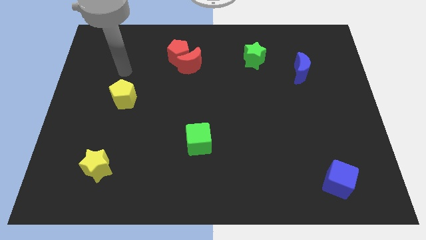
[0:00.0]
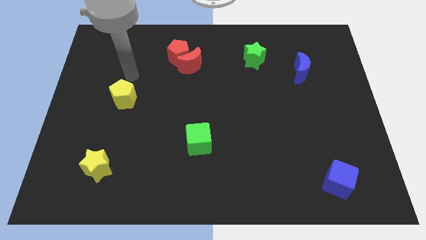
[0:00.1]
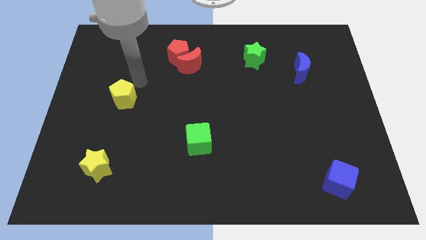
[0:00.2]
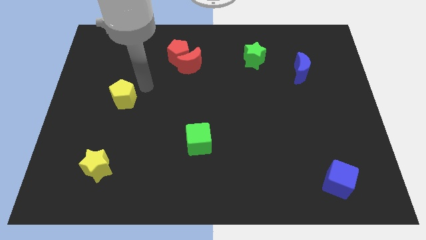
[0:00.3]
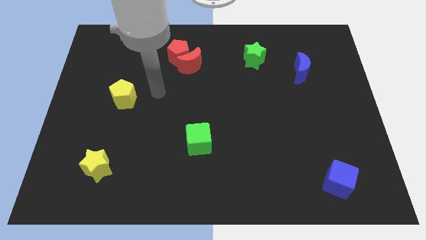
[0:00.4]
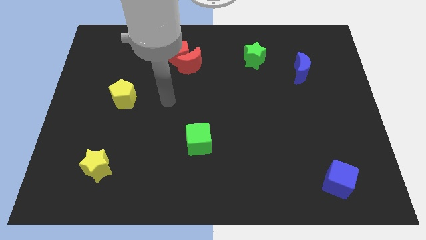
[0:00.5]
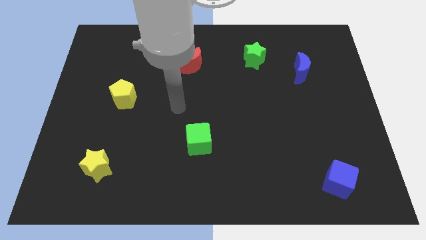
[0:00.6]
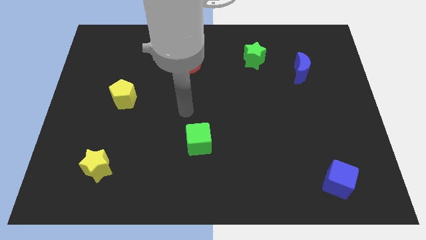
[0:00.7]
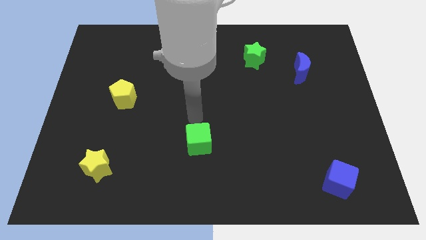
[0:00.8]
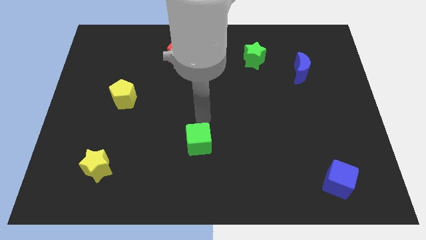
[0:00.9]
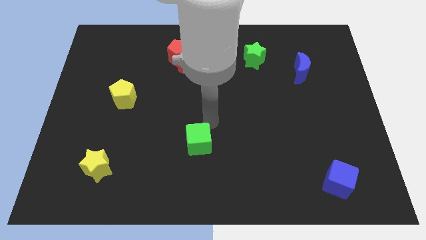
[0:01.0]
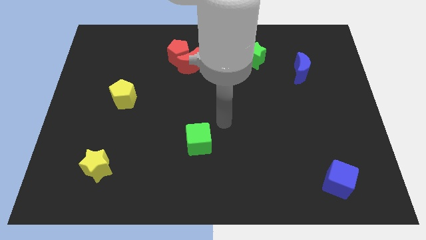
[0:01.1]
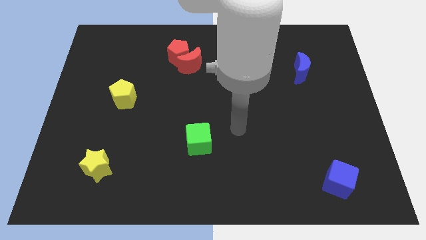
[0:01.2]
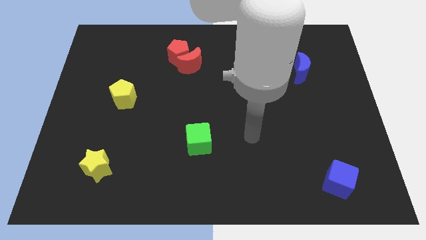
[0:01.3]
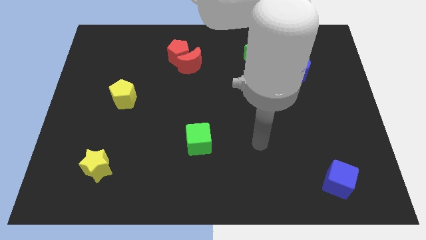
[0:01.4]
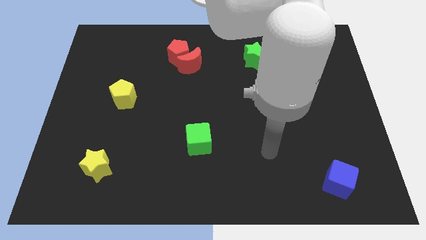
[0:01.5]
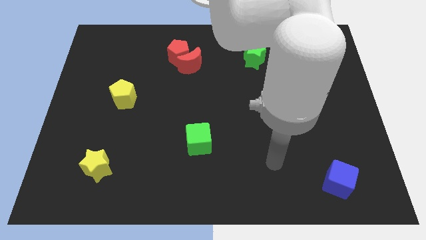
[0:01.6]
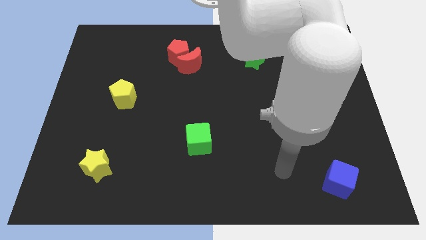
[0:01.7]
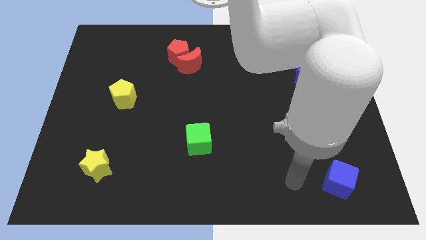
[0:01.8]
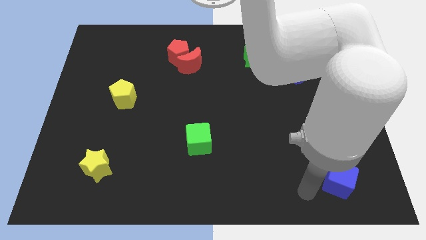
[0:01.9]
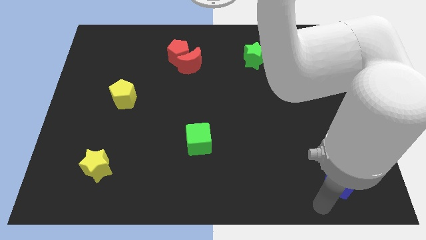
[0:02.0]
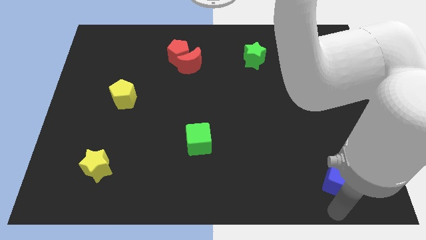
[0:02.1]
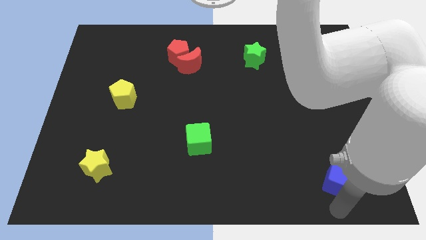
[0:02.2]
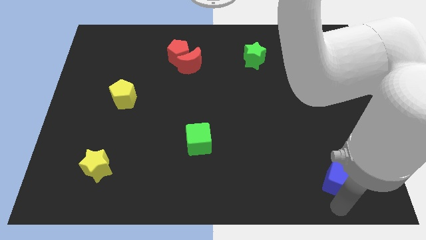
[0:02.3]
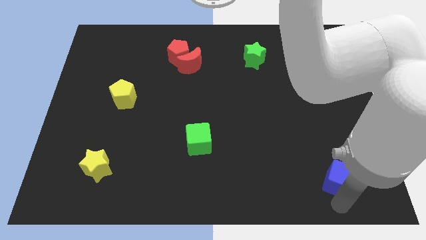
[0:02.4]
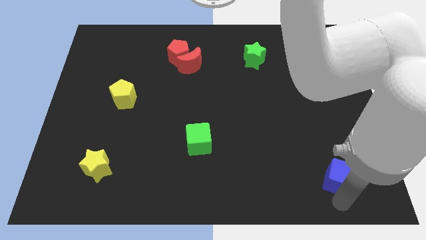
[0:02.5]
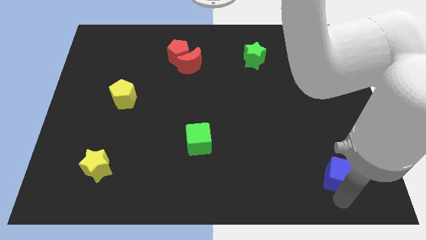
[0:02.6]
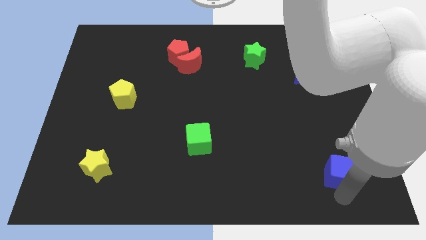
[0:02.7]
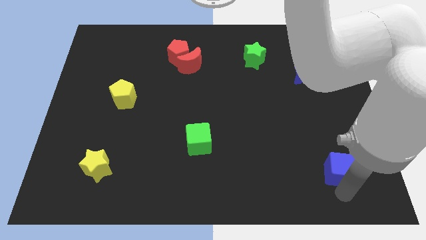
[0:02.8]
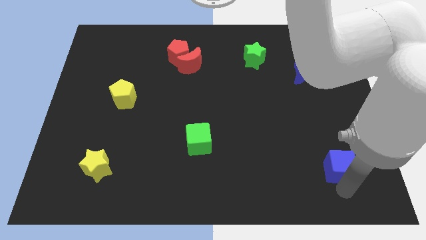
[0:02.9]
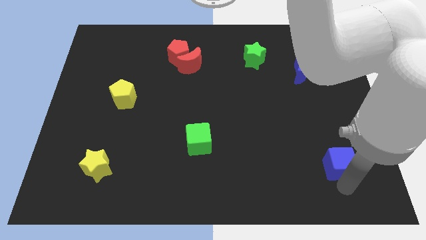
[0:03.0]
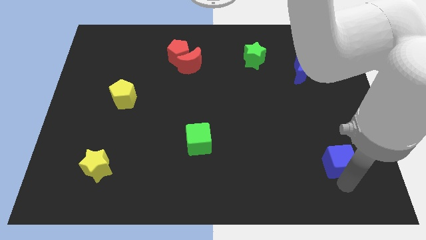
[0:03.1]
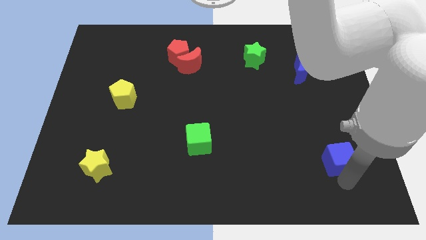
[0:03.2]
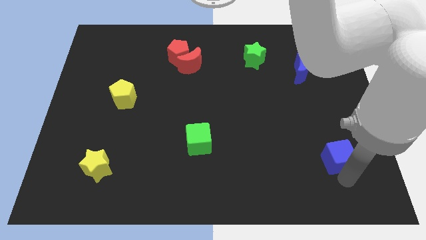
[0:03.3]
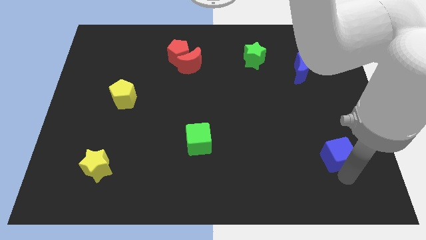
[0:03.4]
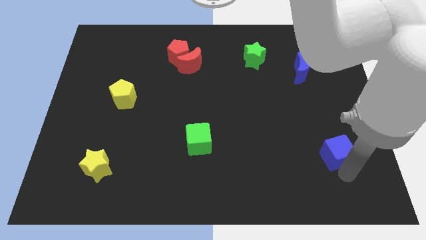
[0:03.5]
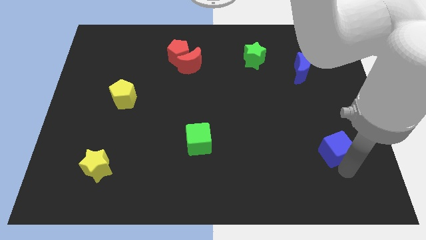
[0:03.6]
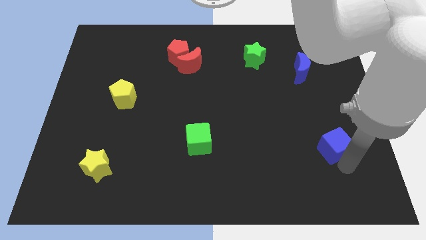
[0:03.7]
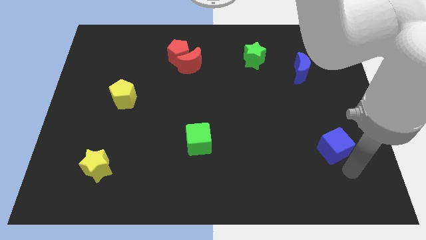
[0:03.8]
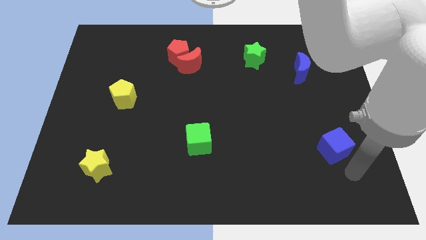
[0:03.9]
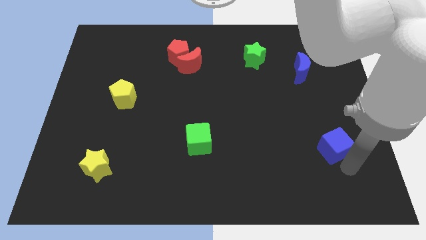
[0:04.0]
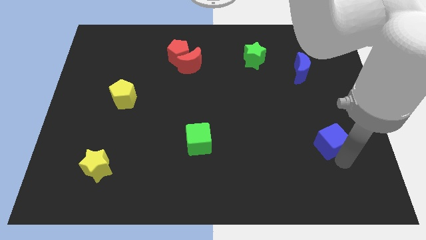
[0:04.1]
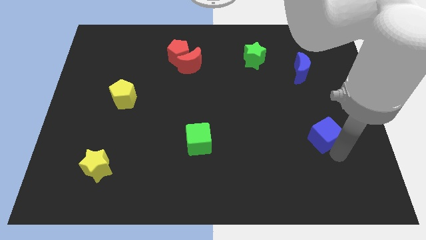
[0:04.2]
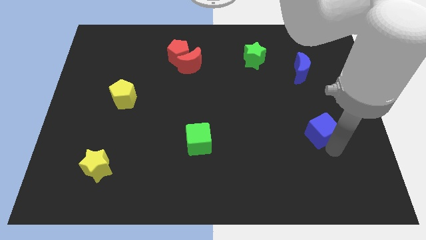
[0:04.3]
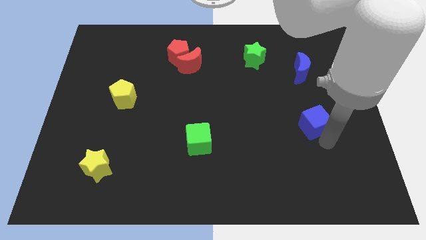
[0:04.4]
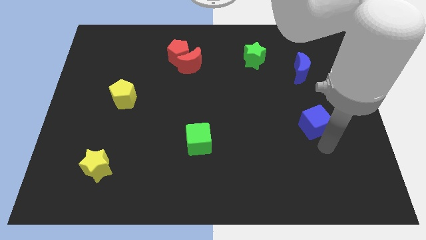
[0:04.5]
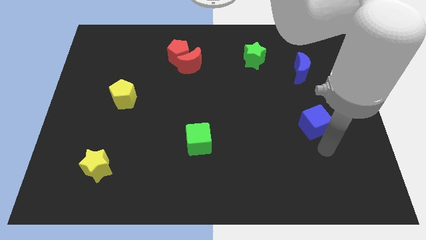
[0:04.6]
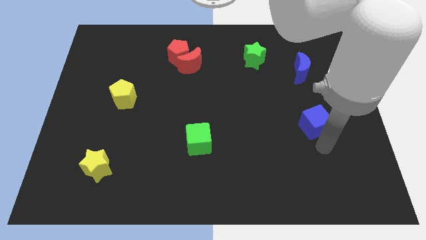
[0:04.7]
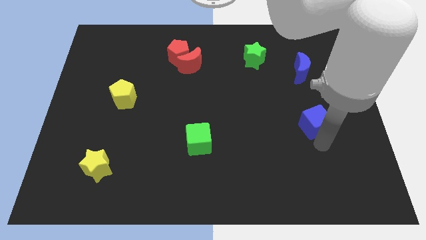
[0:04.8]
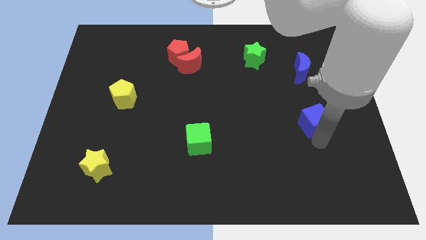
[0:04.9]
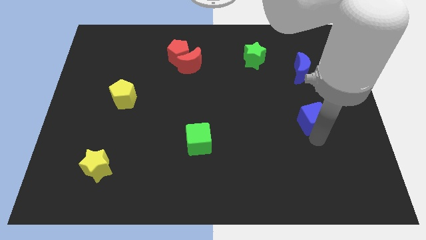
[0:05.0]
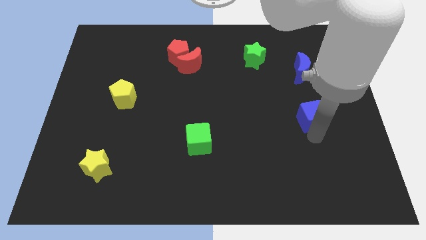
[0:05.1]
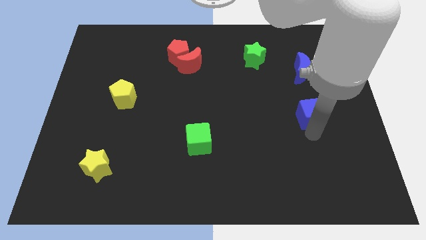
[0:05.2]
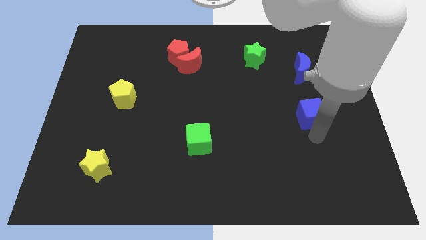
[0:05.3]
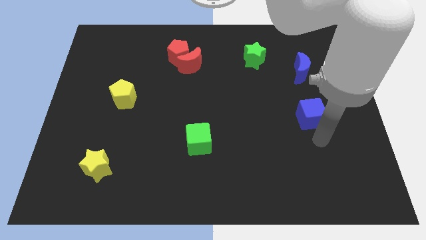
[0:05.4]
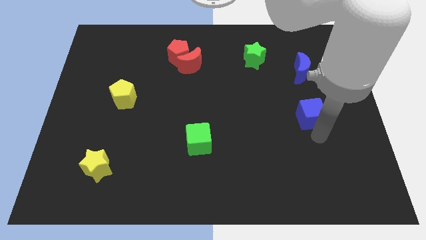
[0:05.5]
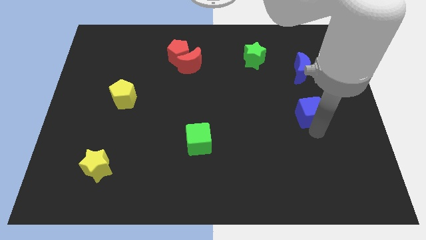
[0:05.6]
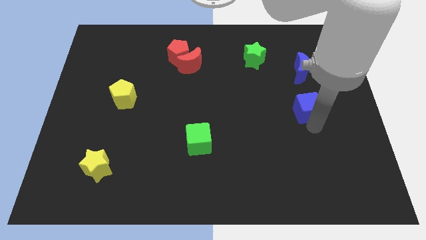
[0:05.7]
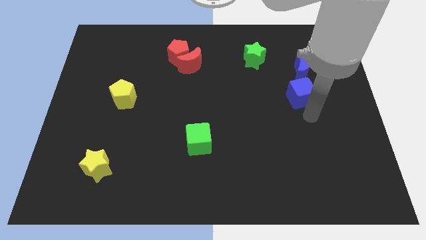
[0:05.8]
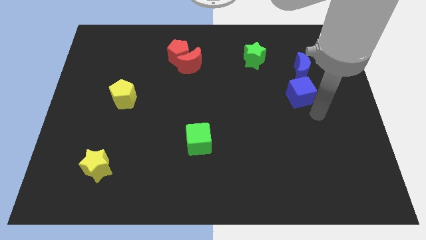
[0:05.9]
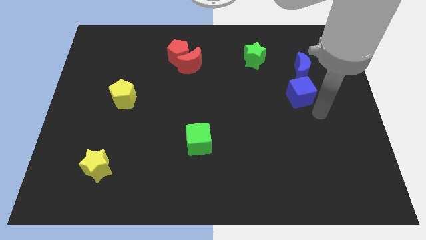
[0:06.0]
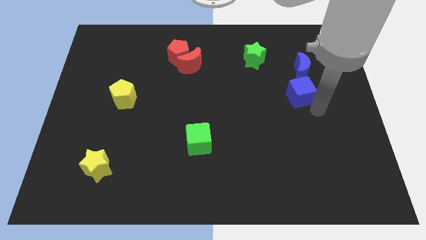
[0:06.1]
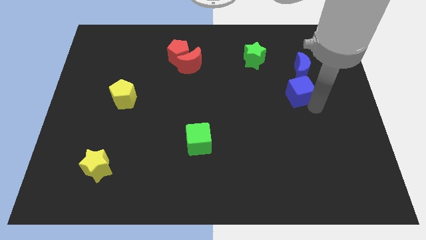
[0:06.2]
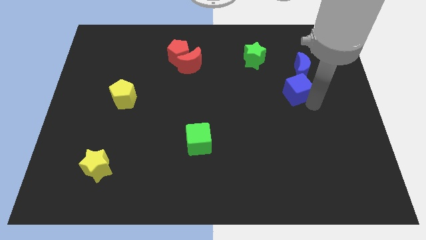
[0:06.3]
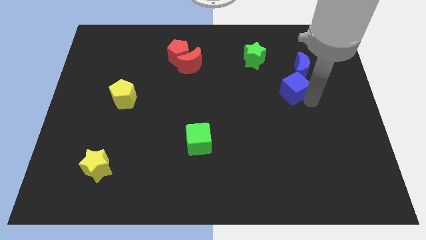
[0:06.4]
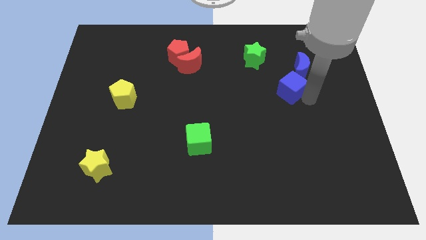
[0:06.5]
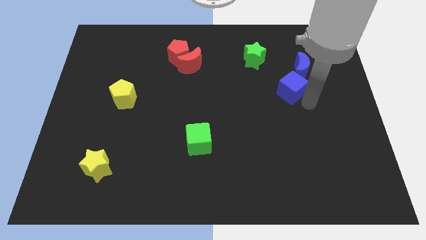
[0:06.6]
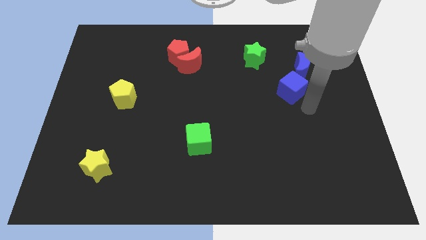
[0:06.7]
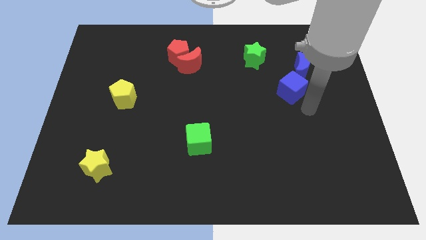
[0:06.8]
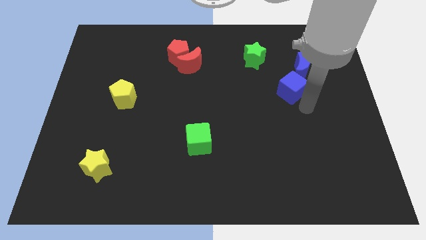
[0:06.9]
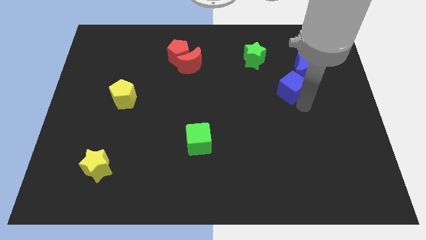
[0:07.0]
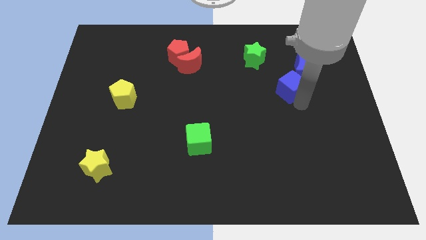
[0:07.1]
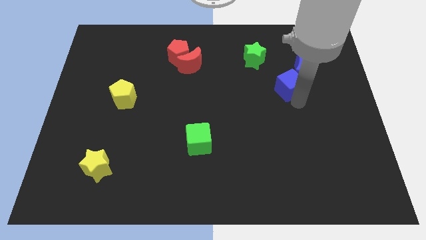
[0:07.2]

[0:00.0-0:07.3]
move the blue cube to the bottom right of the green star

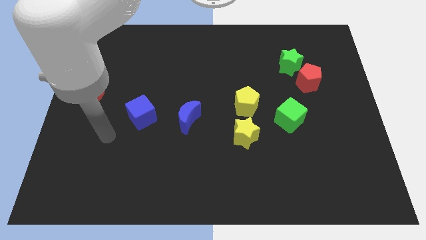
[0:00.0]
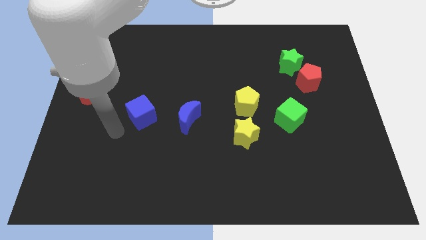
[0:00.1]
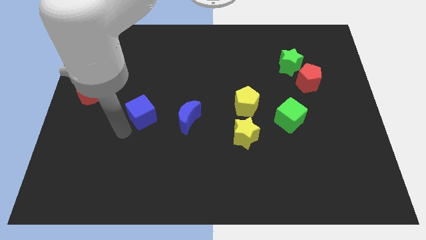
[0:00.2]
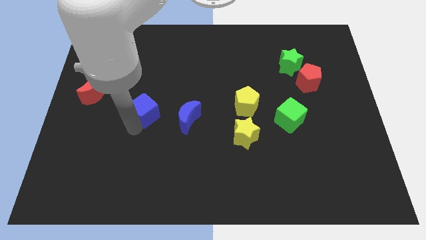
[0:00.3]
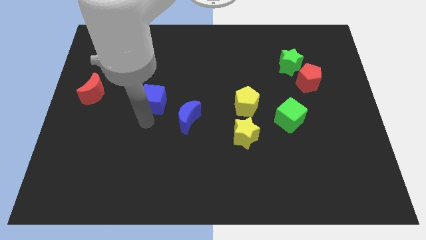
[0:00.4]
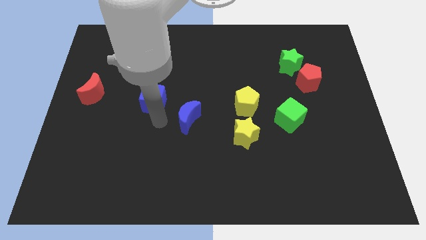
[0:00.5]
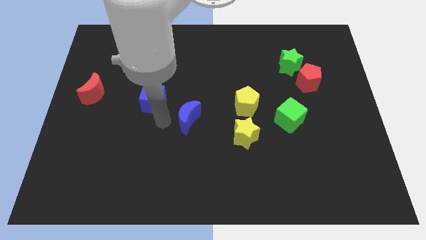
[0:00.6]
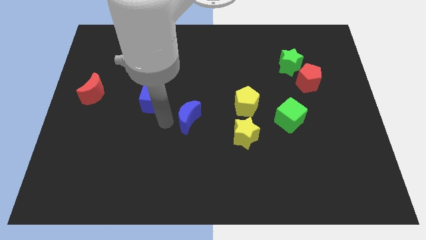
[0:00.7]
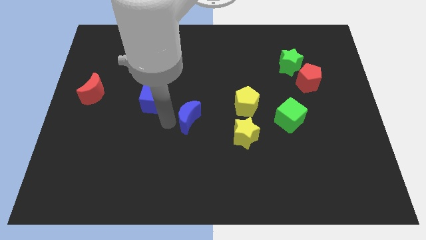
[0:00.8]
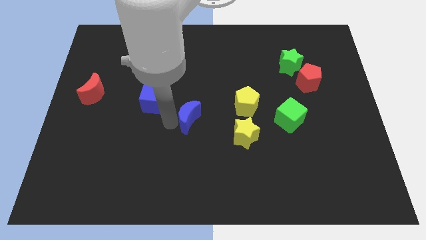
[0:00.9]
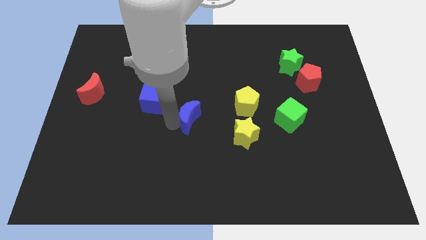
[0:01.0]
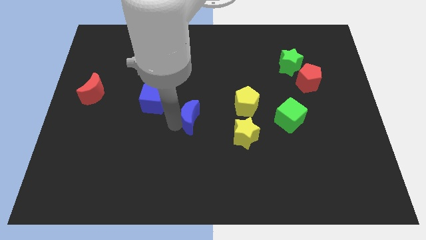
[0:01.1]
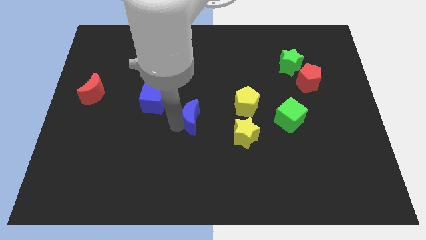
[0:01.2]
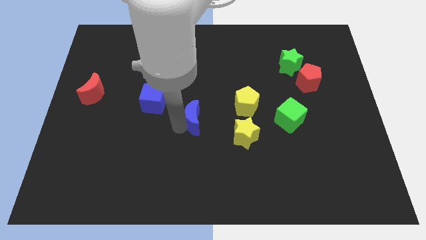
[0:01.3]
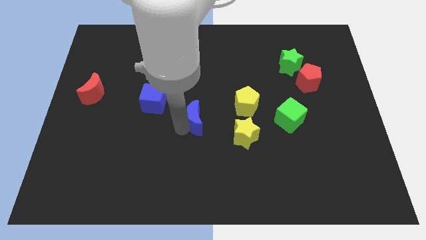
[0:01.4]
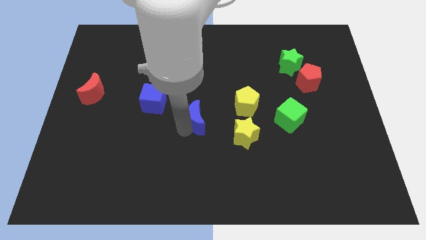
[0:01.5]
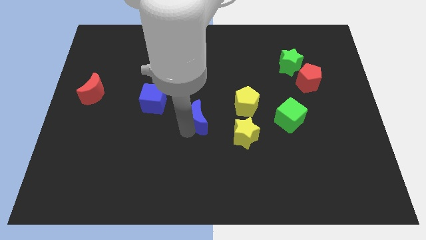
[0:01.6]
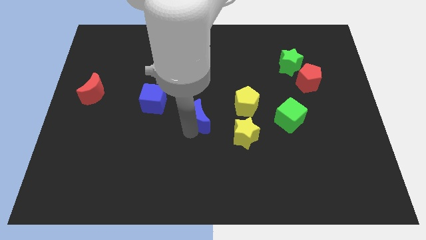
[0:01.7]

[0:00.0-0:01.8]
move the blue moon diagonally up and to the left of the yellow star
